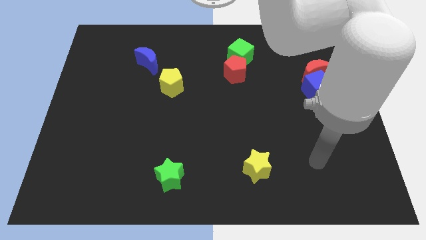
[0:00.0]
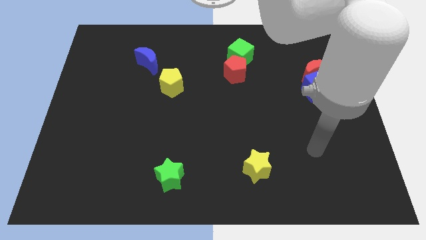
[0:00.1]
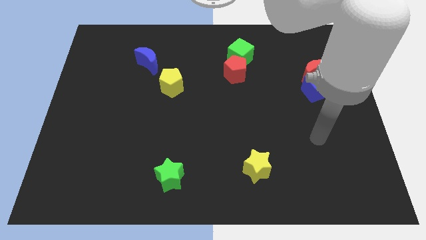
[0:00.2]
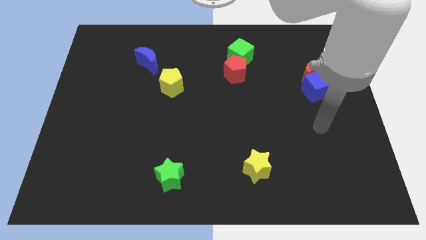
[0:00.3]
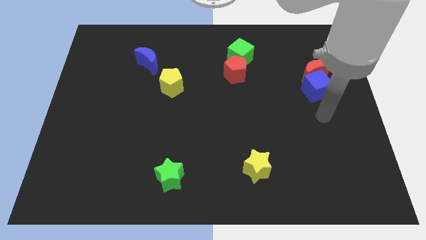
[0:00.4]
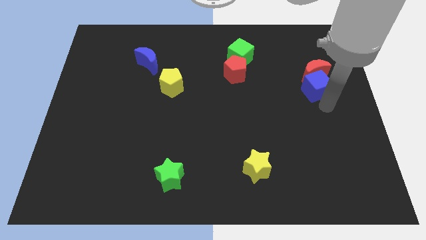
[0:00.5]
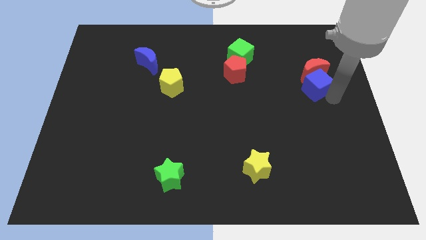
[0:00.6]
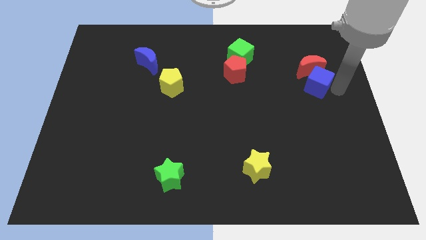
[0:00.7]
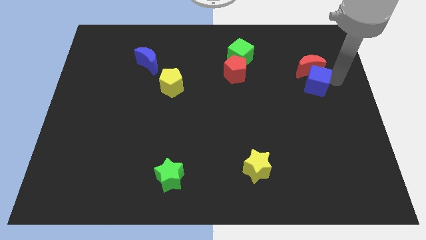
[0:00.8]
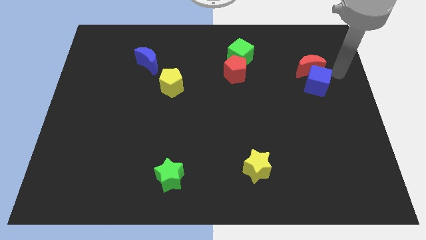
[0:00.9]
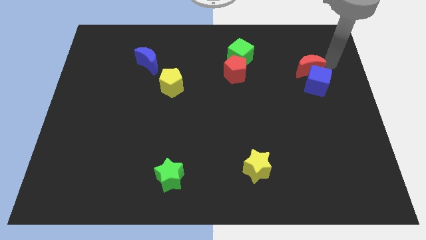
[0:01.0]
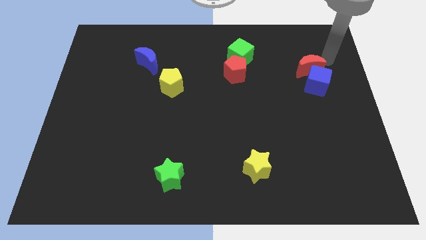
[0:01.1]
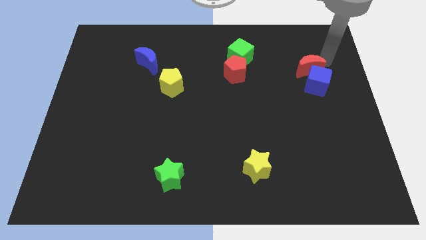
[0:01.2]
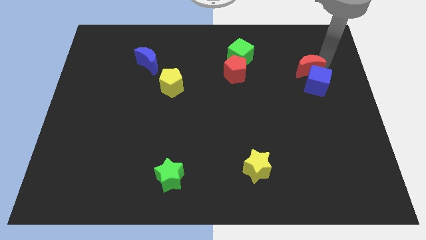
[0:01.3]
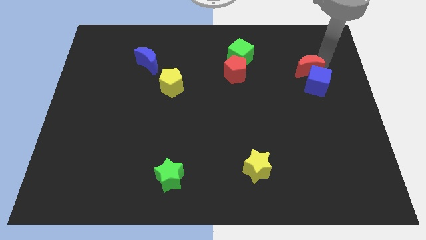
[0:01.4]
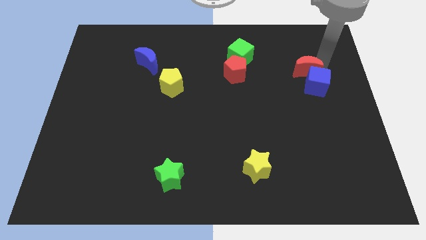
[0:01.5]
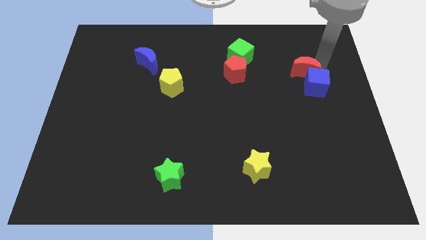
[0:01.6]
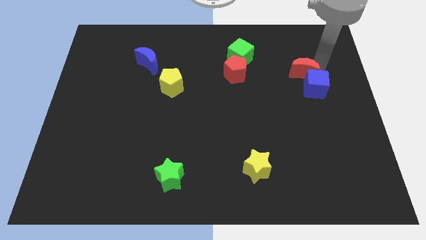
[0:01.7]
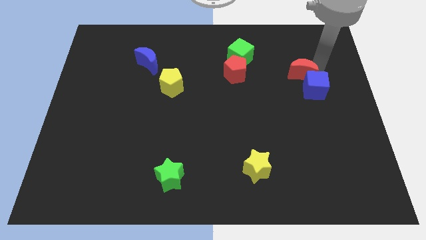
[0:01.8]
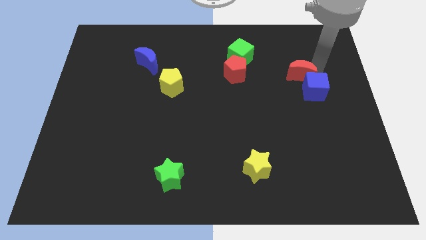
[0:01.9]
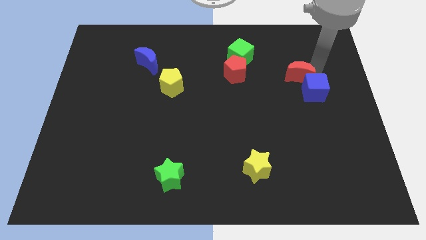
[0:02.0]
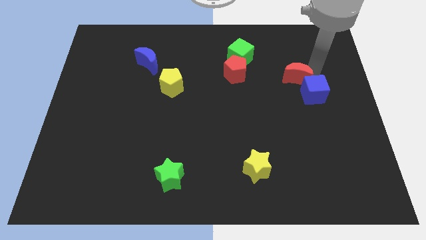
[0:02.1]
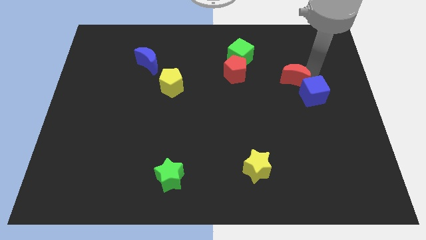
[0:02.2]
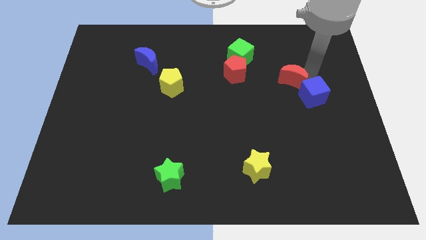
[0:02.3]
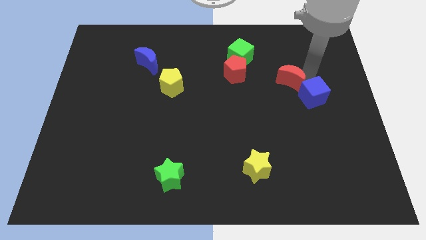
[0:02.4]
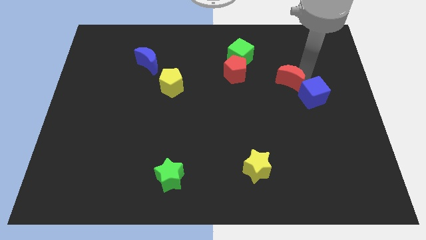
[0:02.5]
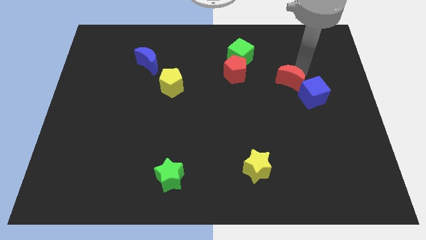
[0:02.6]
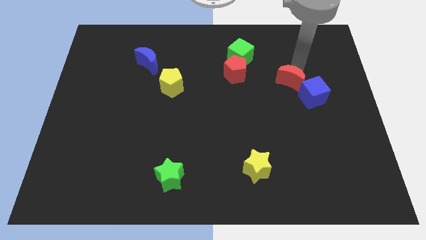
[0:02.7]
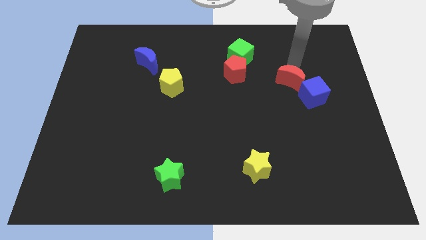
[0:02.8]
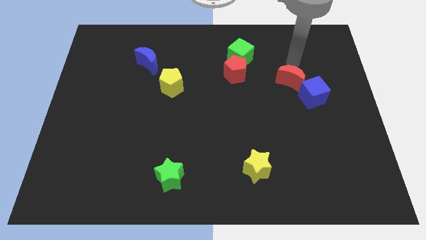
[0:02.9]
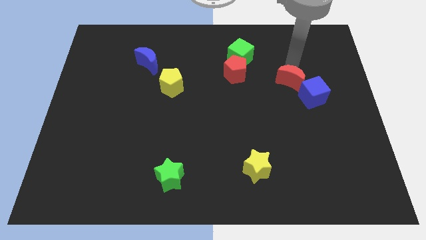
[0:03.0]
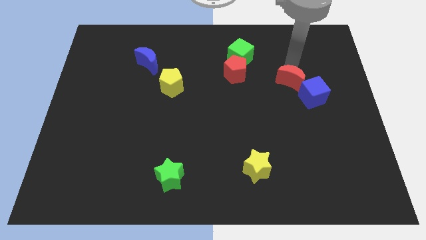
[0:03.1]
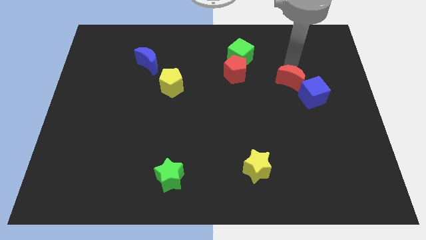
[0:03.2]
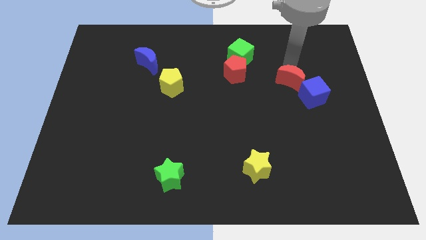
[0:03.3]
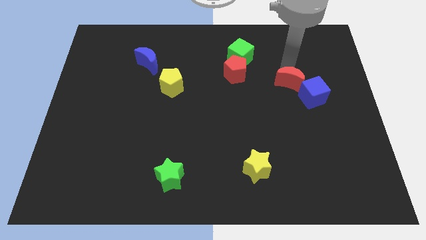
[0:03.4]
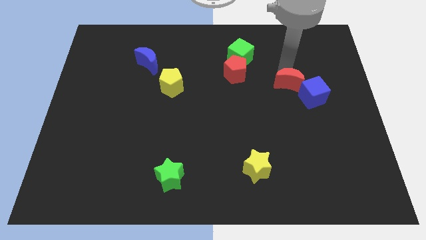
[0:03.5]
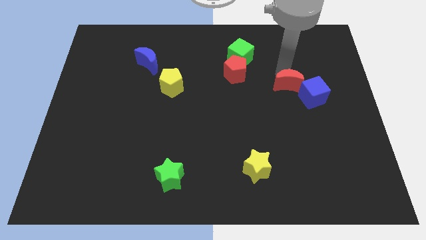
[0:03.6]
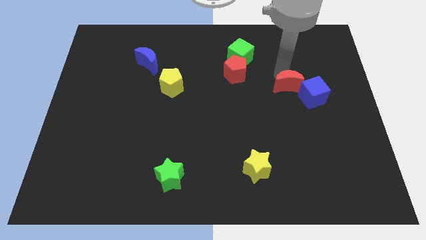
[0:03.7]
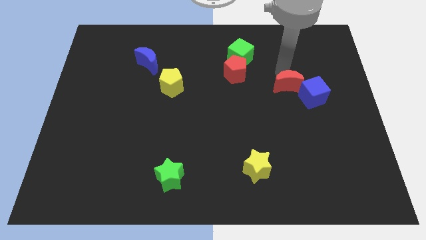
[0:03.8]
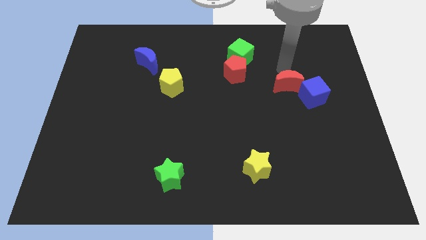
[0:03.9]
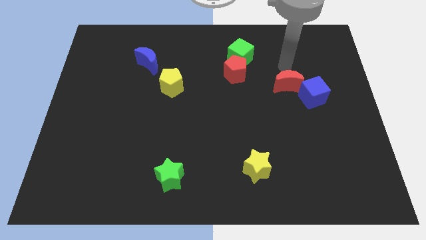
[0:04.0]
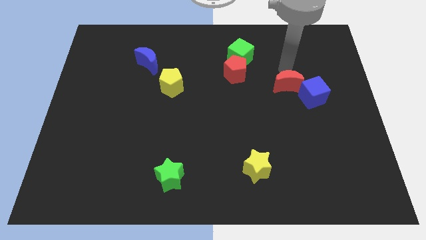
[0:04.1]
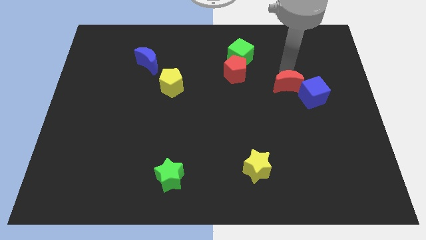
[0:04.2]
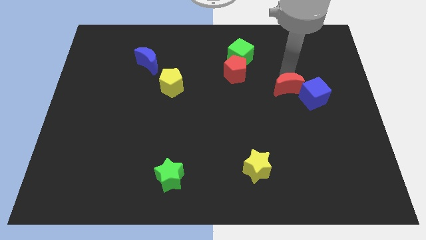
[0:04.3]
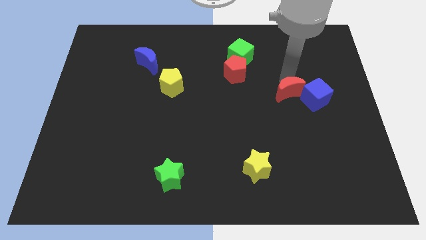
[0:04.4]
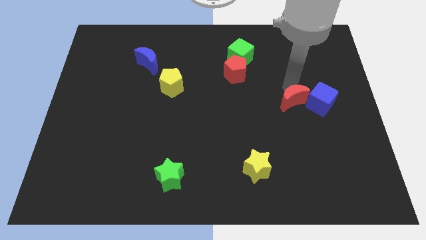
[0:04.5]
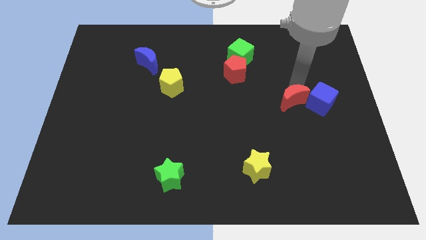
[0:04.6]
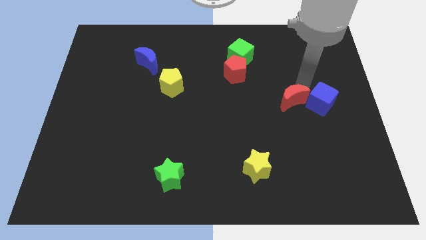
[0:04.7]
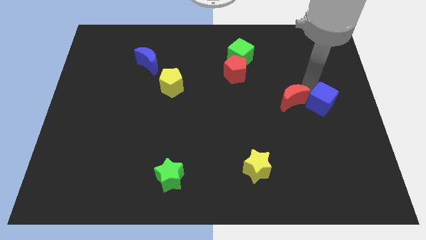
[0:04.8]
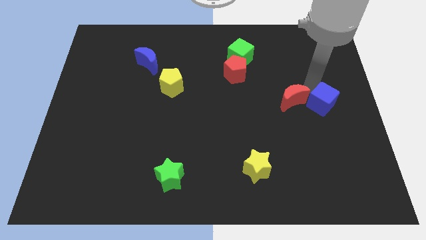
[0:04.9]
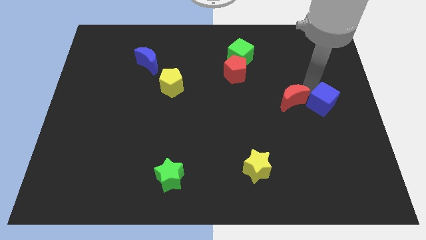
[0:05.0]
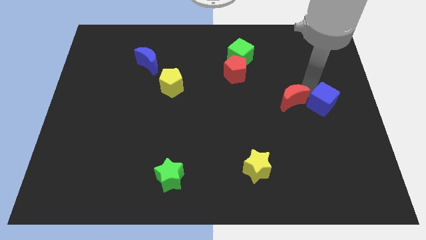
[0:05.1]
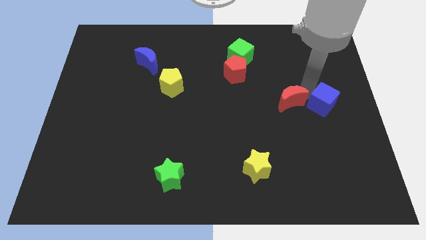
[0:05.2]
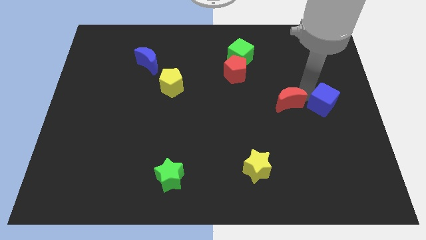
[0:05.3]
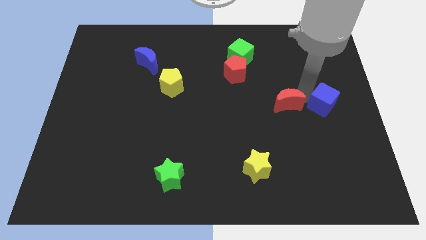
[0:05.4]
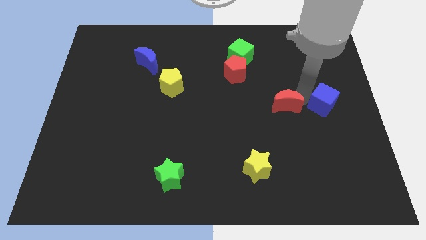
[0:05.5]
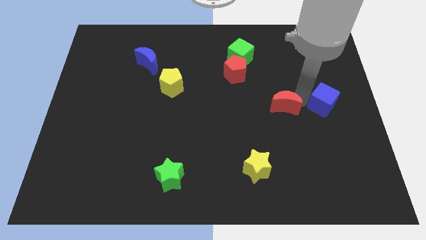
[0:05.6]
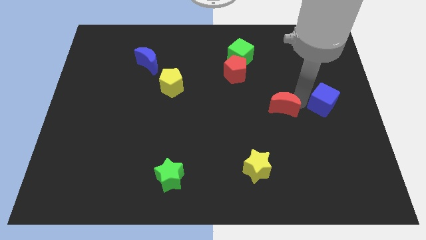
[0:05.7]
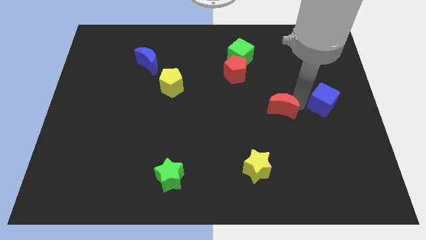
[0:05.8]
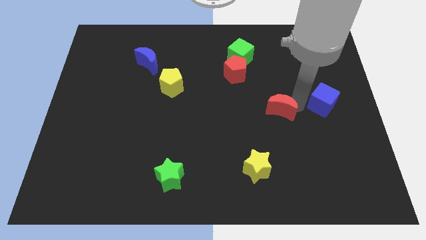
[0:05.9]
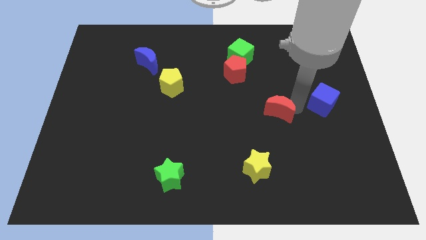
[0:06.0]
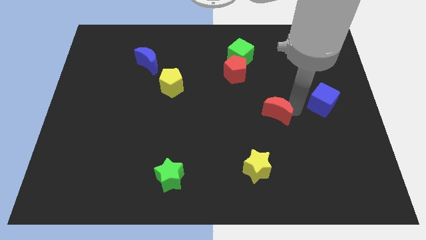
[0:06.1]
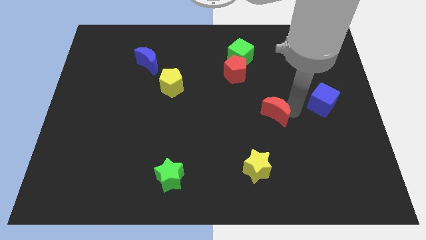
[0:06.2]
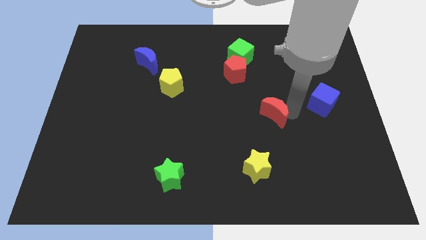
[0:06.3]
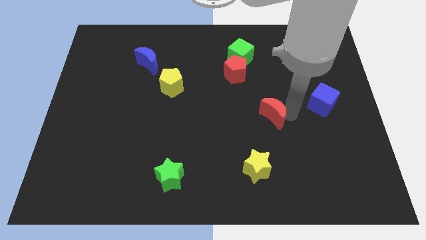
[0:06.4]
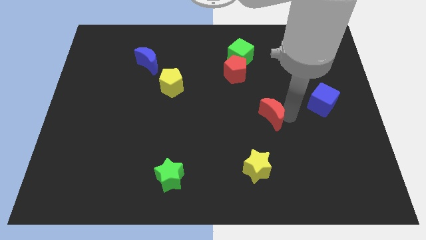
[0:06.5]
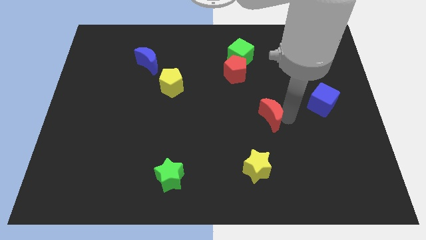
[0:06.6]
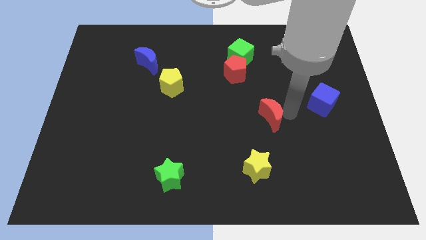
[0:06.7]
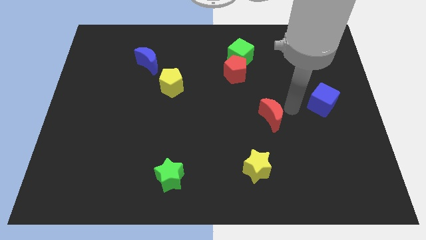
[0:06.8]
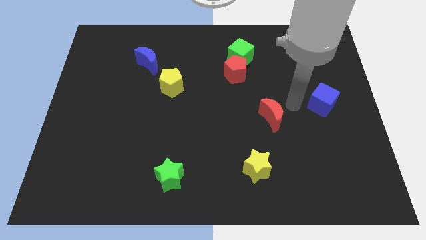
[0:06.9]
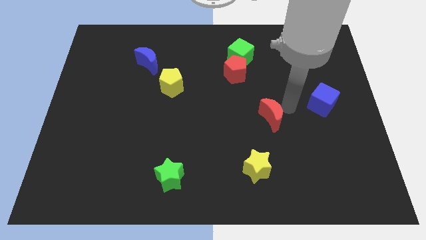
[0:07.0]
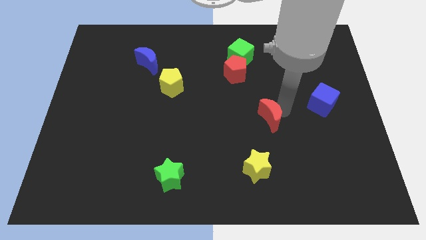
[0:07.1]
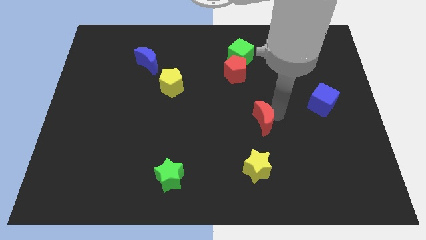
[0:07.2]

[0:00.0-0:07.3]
slide the red moon downwards and left diagonally

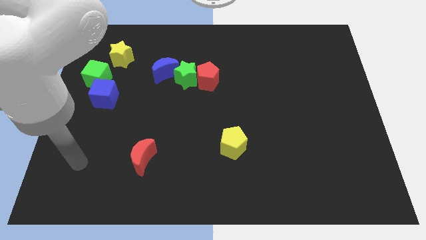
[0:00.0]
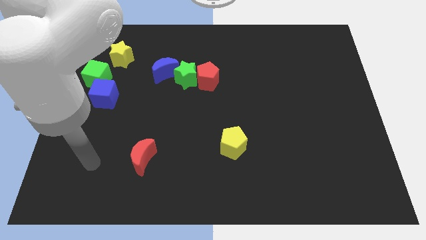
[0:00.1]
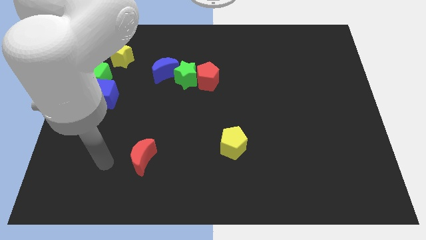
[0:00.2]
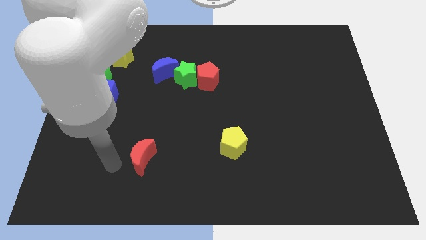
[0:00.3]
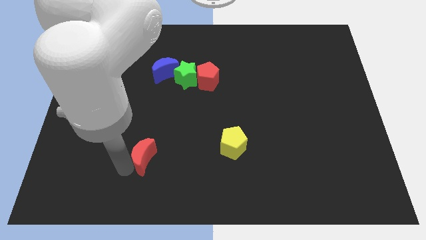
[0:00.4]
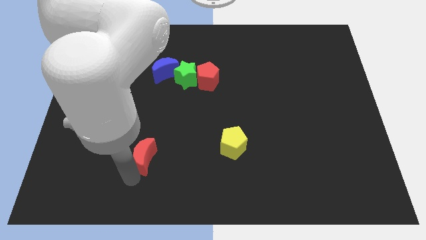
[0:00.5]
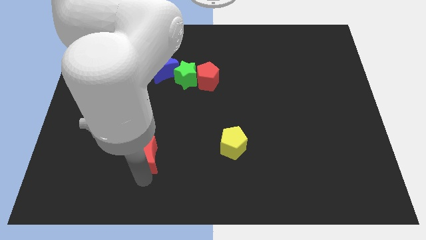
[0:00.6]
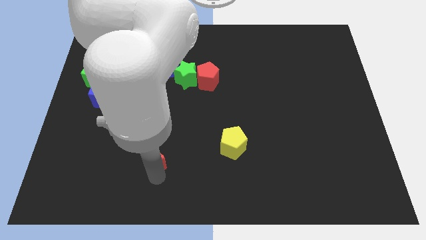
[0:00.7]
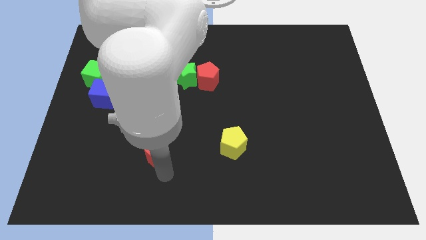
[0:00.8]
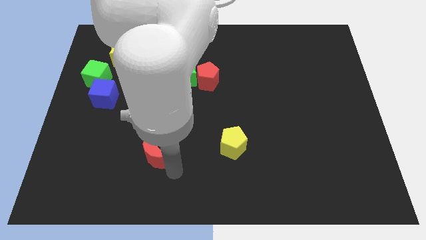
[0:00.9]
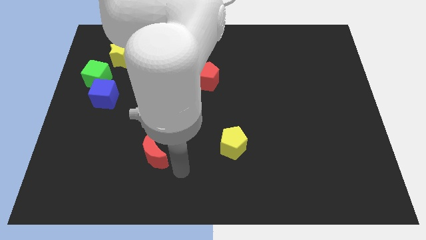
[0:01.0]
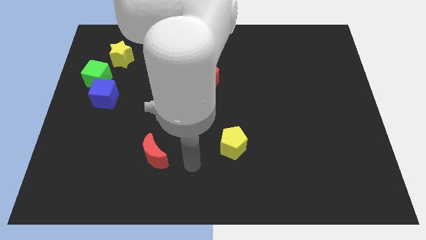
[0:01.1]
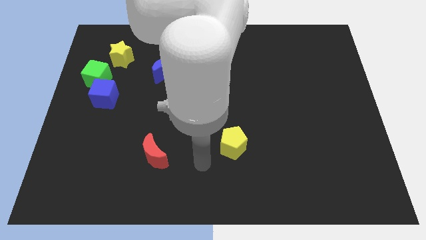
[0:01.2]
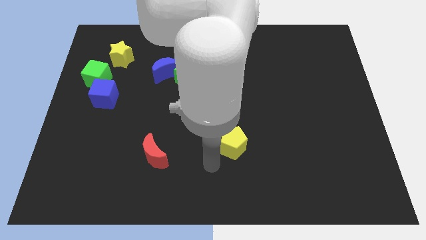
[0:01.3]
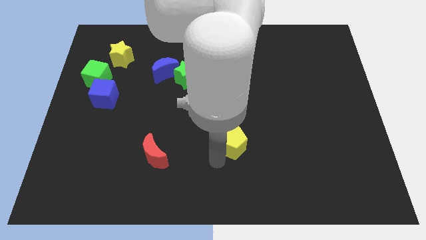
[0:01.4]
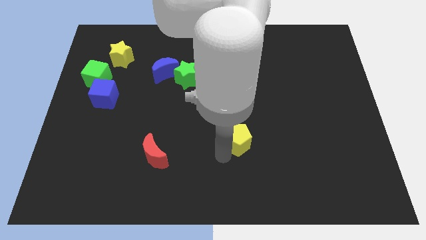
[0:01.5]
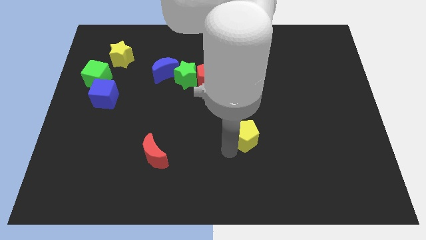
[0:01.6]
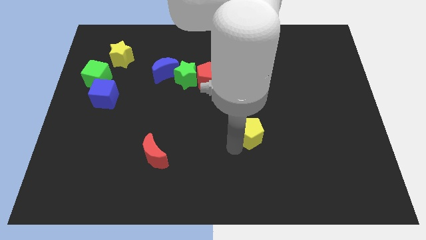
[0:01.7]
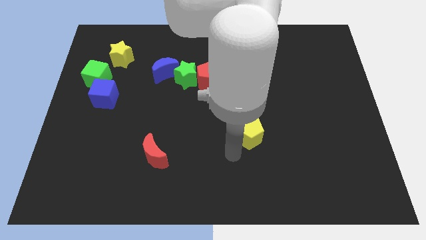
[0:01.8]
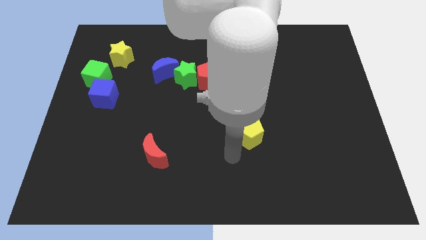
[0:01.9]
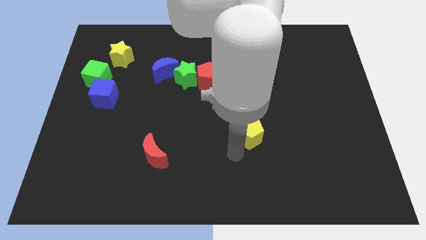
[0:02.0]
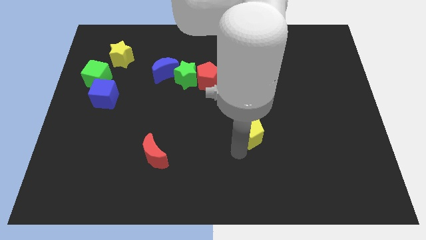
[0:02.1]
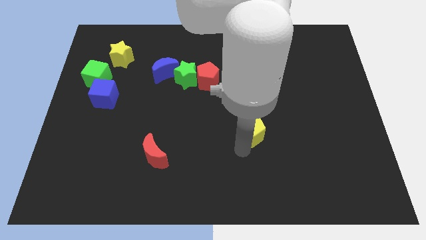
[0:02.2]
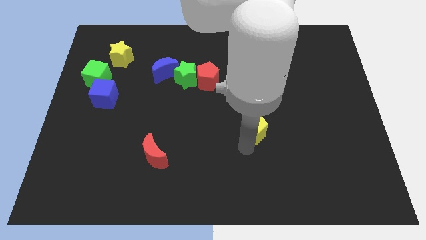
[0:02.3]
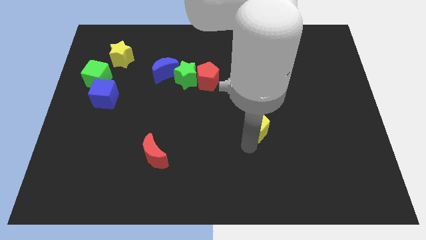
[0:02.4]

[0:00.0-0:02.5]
slide the yellow pentagon somewhat up and then to the right
